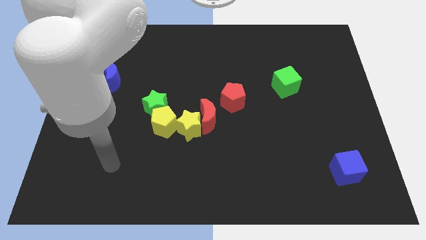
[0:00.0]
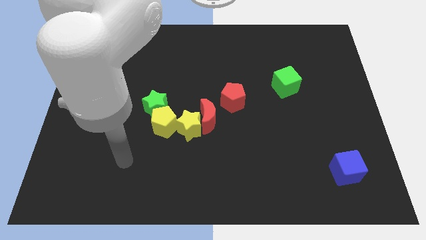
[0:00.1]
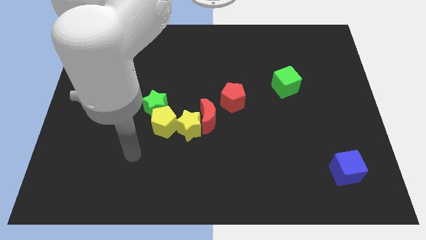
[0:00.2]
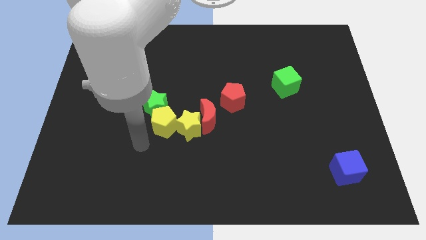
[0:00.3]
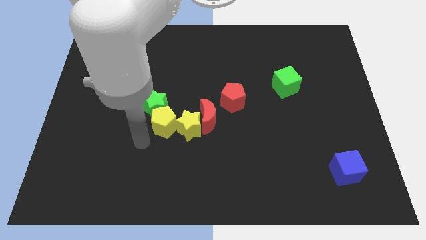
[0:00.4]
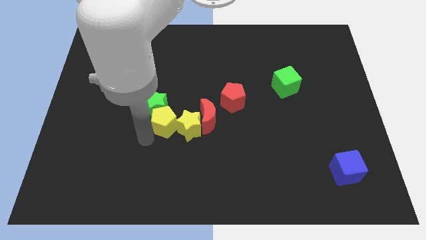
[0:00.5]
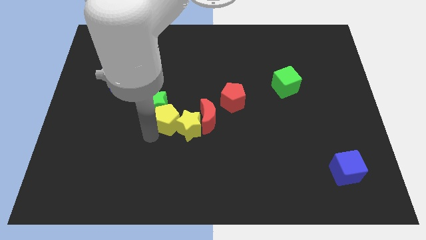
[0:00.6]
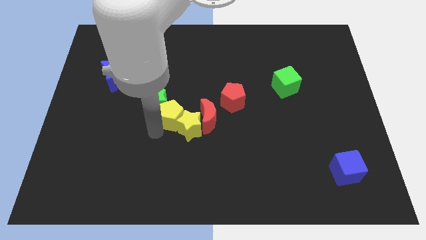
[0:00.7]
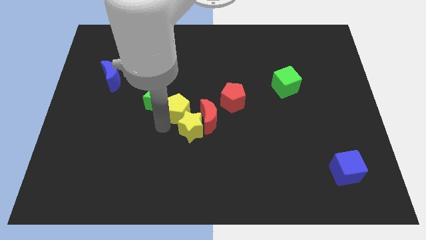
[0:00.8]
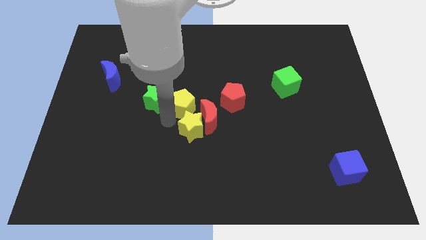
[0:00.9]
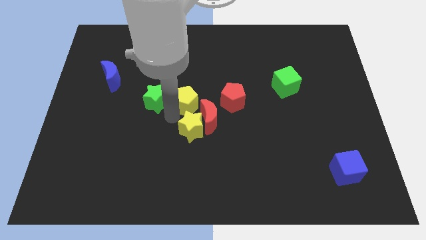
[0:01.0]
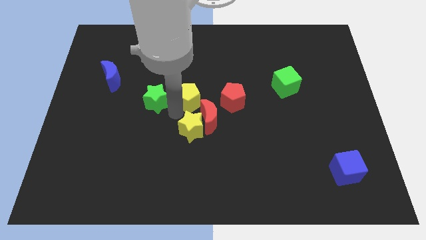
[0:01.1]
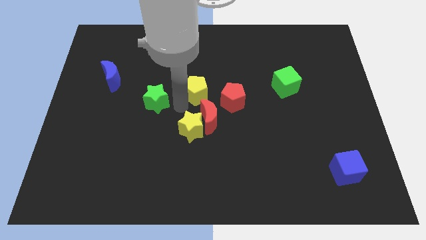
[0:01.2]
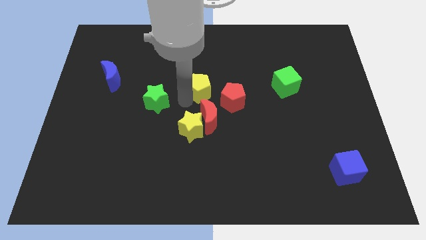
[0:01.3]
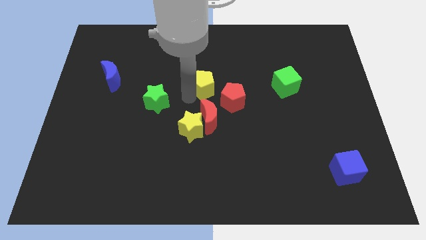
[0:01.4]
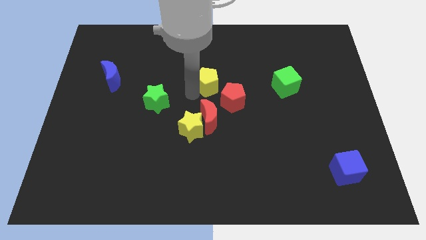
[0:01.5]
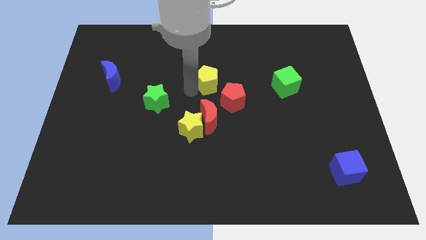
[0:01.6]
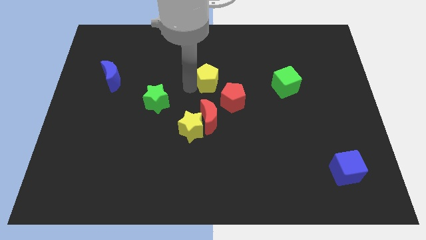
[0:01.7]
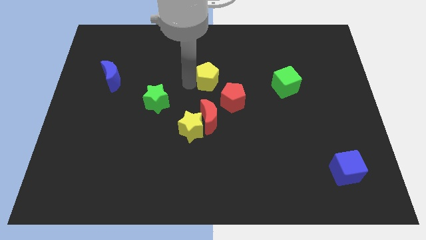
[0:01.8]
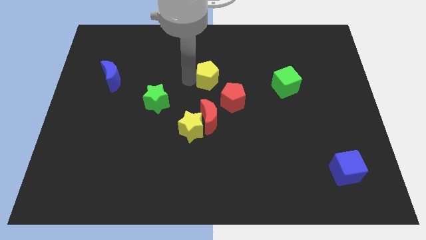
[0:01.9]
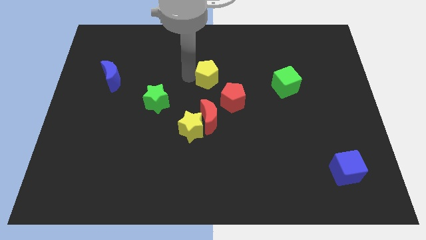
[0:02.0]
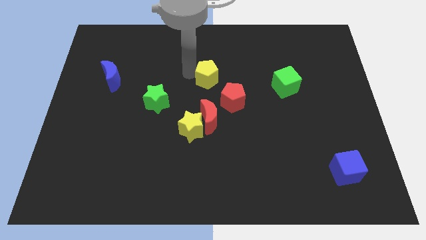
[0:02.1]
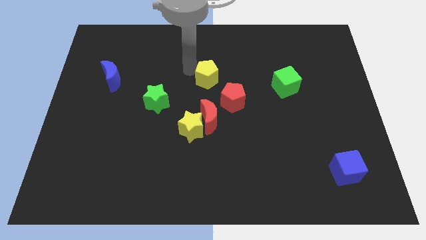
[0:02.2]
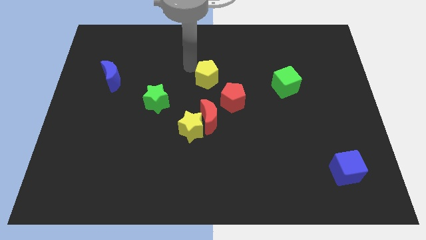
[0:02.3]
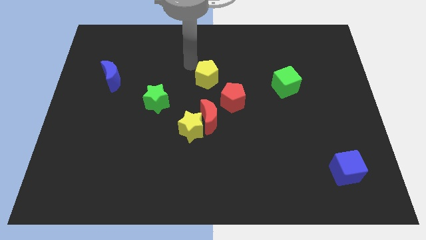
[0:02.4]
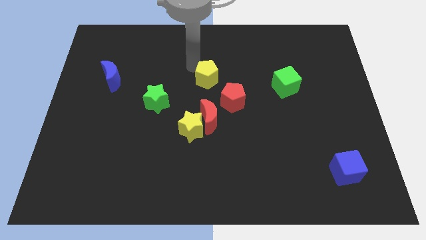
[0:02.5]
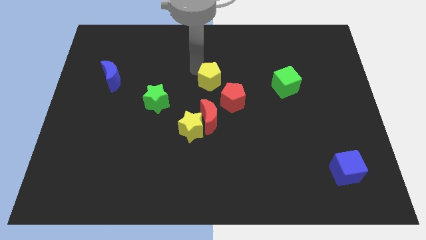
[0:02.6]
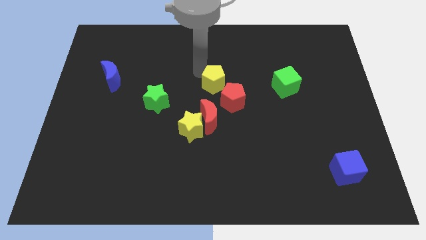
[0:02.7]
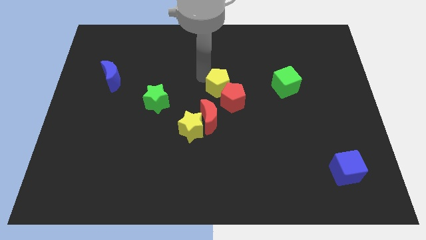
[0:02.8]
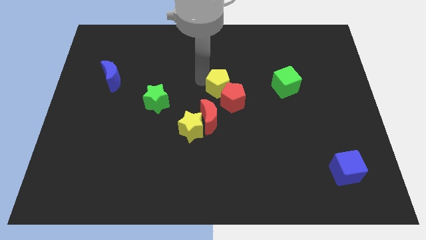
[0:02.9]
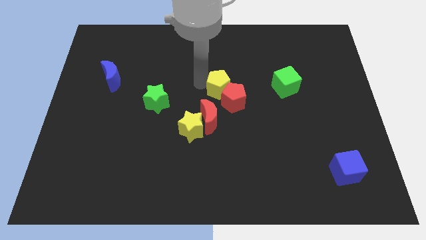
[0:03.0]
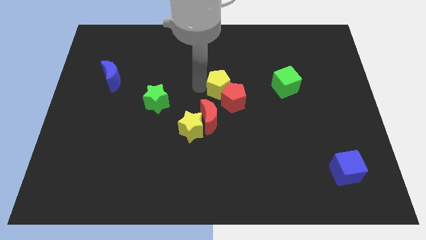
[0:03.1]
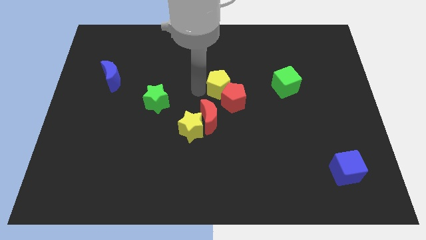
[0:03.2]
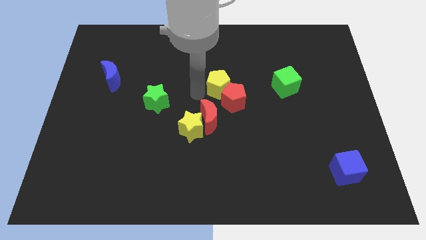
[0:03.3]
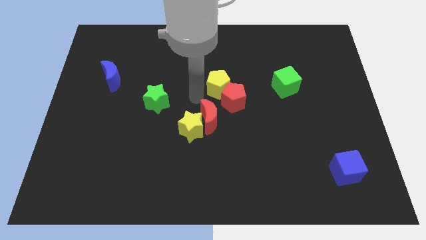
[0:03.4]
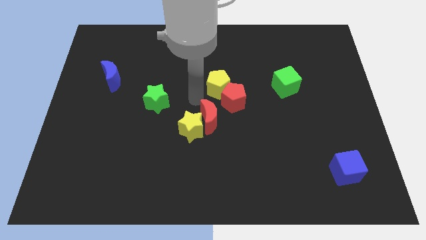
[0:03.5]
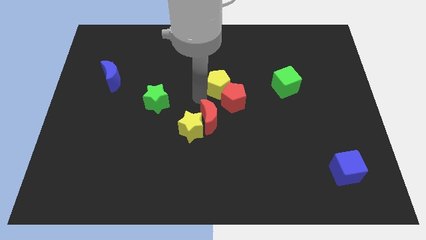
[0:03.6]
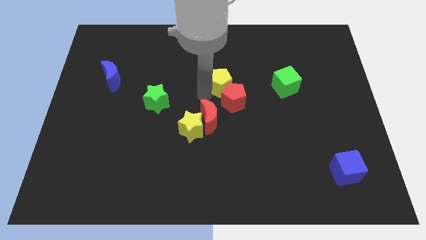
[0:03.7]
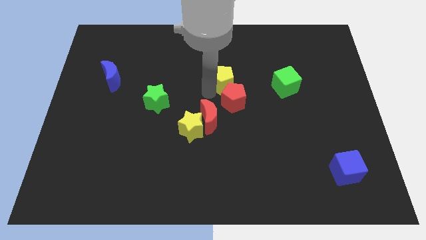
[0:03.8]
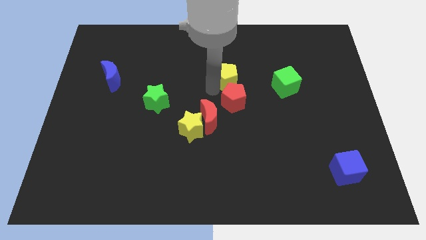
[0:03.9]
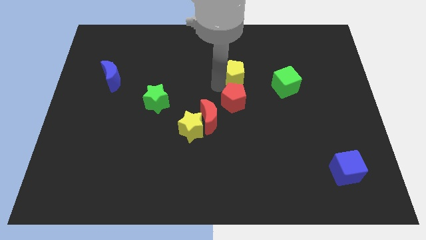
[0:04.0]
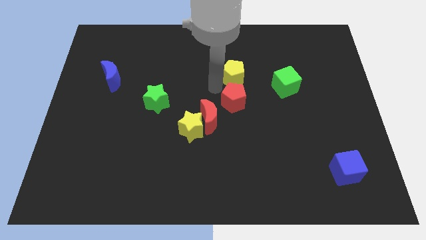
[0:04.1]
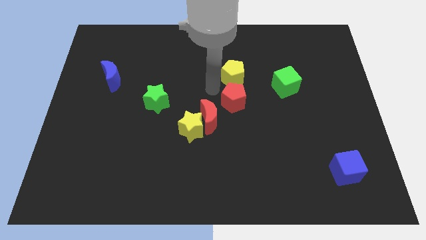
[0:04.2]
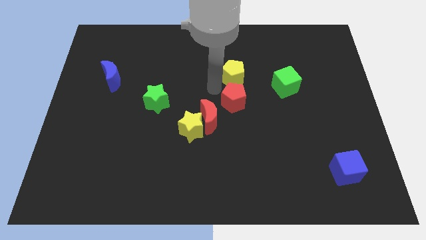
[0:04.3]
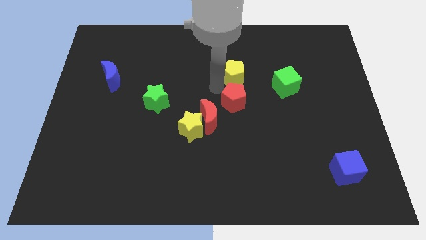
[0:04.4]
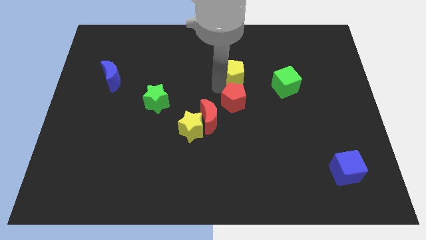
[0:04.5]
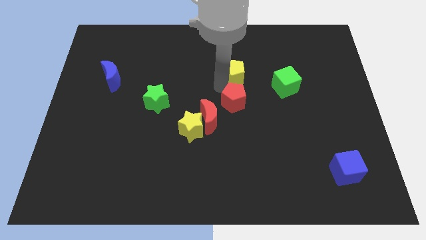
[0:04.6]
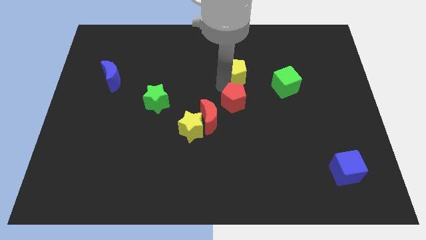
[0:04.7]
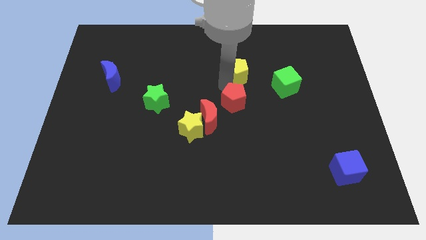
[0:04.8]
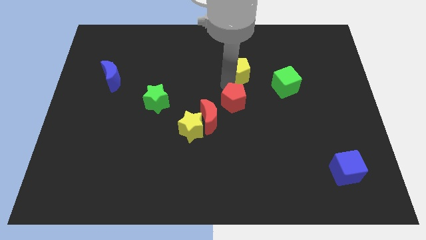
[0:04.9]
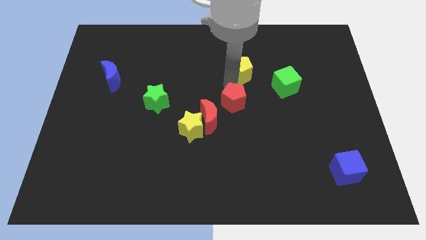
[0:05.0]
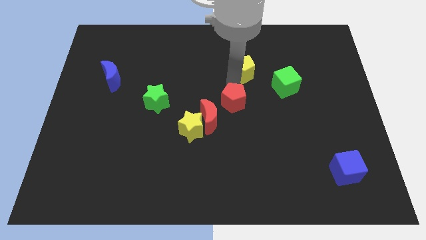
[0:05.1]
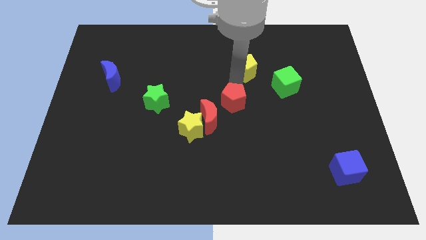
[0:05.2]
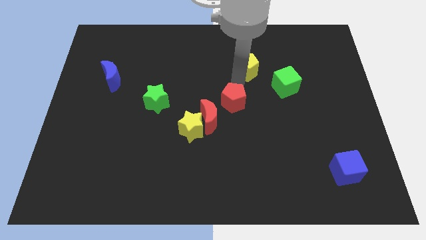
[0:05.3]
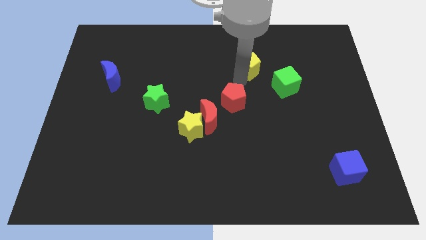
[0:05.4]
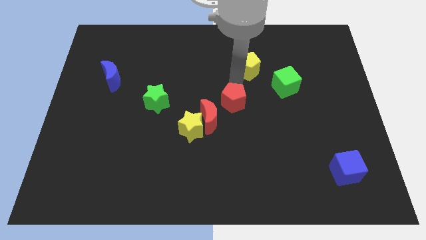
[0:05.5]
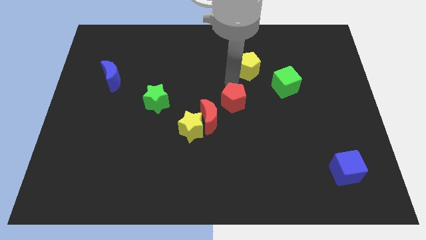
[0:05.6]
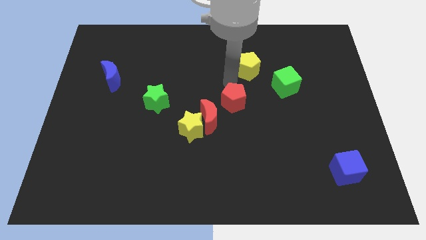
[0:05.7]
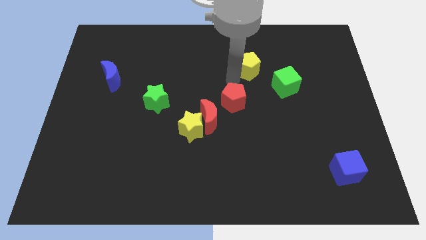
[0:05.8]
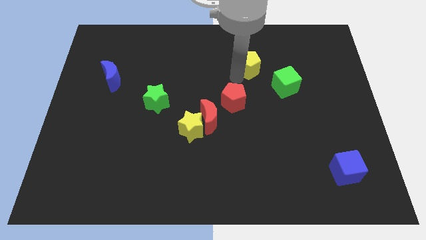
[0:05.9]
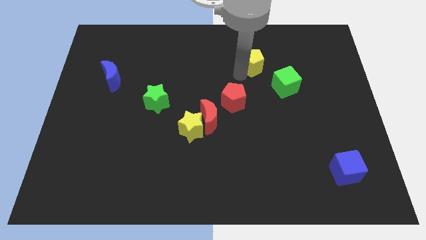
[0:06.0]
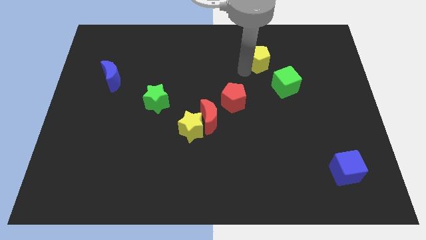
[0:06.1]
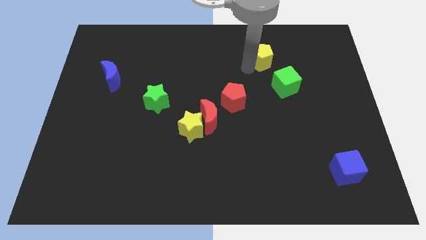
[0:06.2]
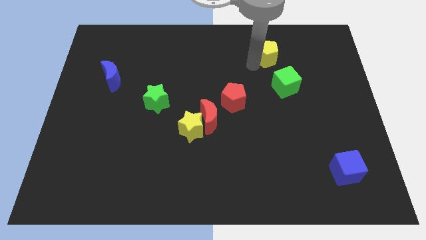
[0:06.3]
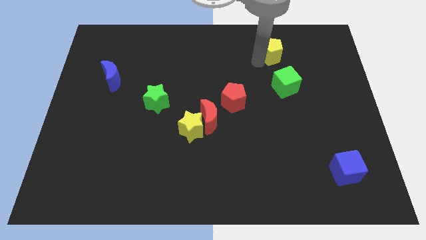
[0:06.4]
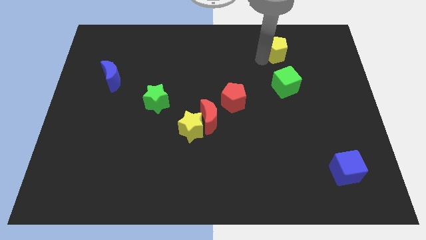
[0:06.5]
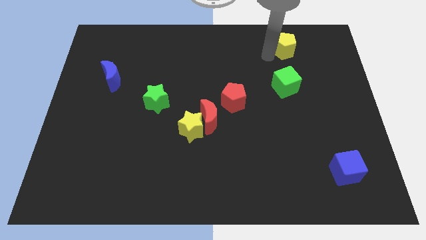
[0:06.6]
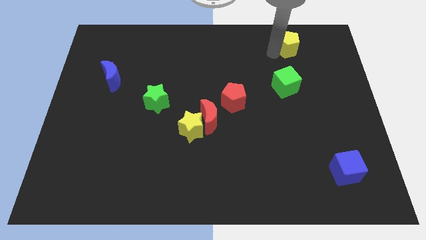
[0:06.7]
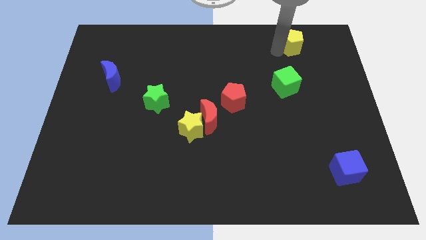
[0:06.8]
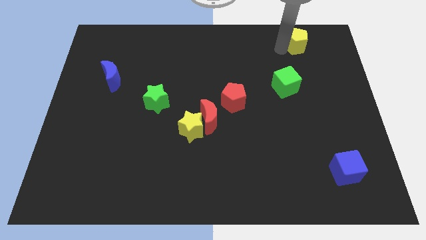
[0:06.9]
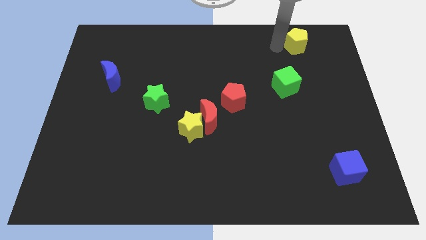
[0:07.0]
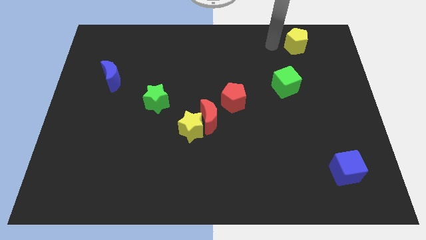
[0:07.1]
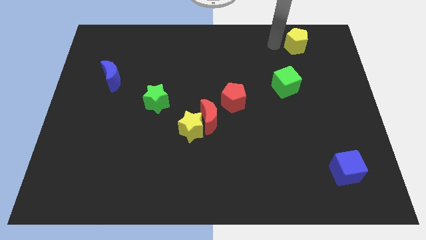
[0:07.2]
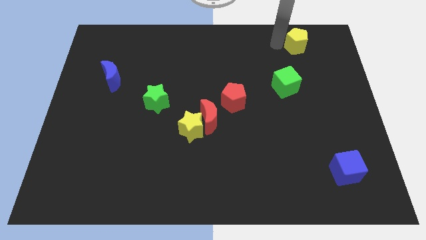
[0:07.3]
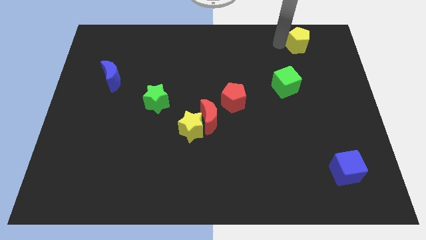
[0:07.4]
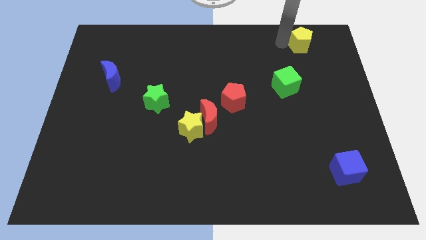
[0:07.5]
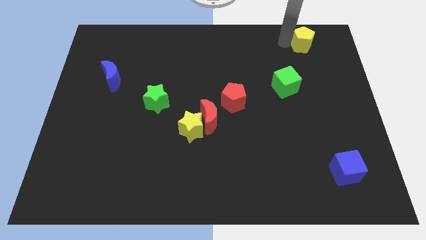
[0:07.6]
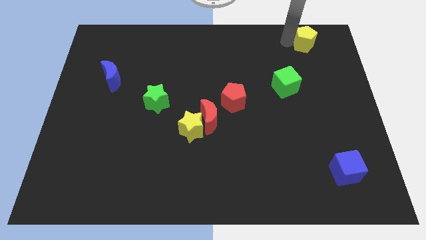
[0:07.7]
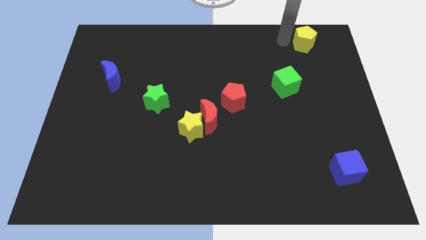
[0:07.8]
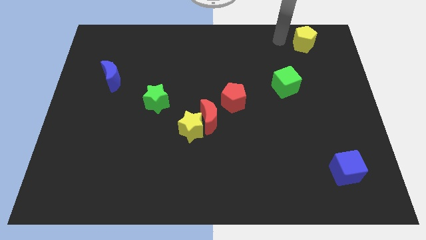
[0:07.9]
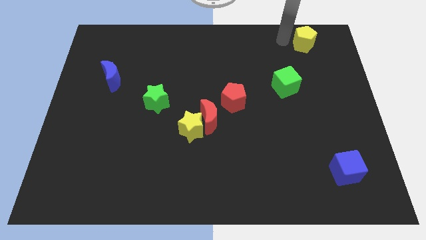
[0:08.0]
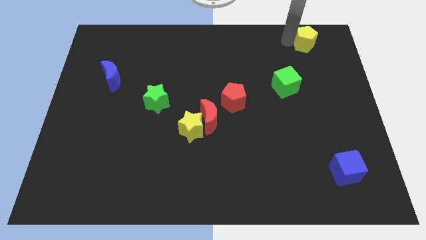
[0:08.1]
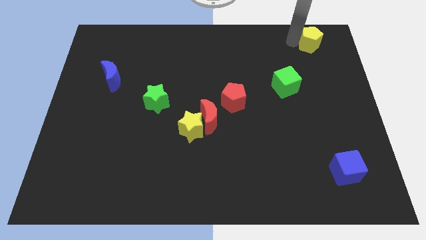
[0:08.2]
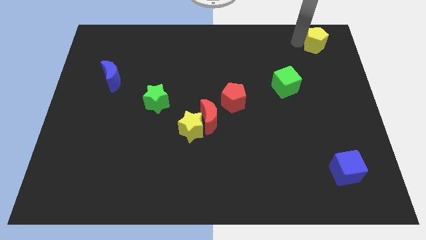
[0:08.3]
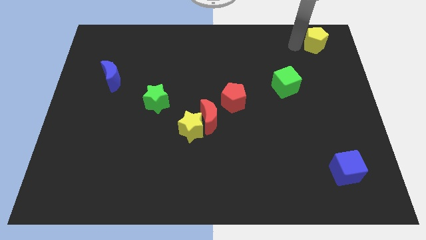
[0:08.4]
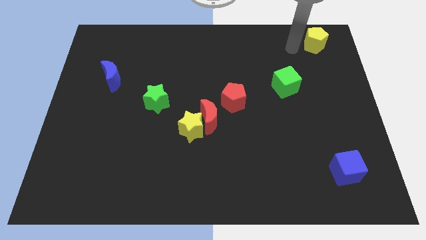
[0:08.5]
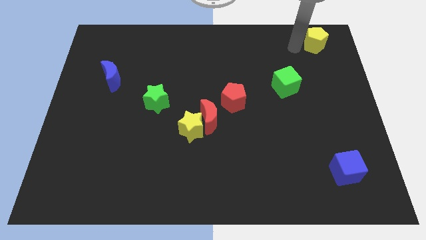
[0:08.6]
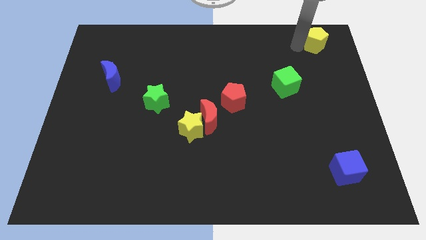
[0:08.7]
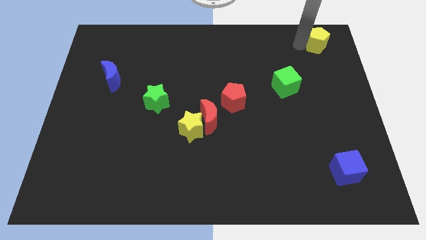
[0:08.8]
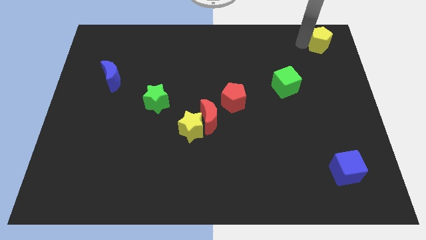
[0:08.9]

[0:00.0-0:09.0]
slide the yellow pentagon to the top right
